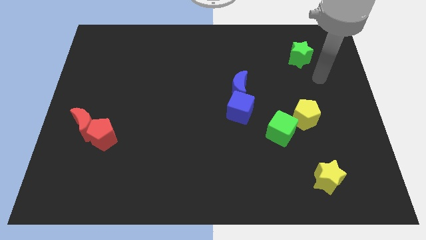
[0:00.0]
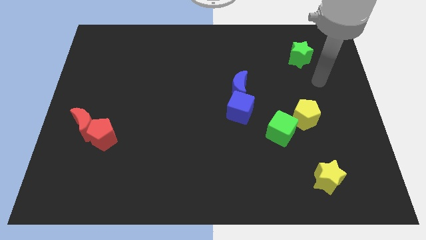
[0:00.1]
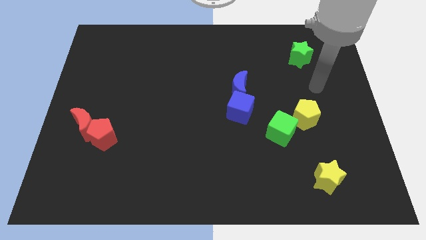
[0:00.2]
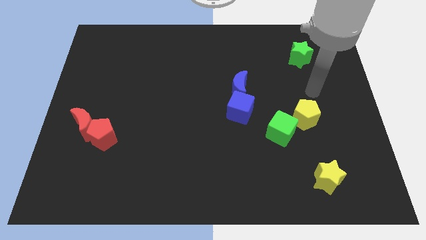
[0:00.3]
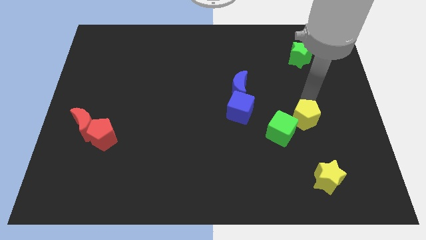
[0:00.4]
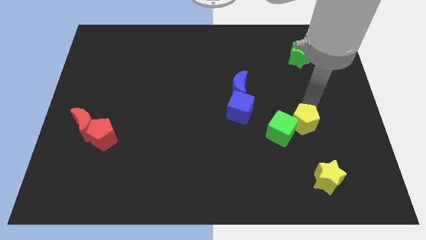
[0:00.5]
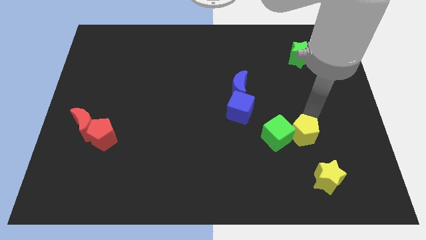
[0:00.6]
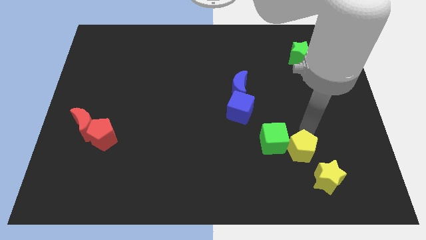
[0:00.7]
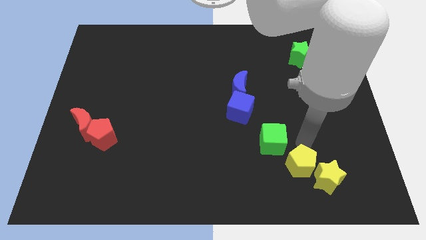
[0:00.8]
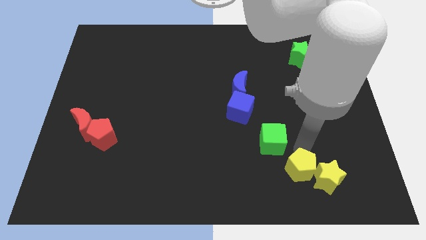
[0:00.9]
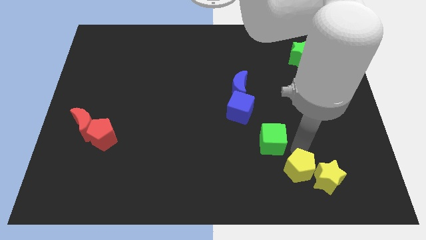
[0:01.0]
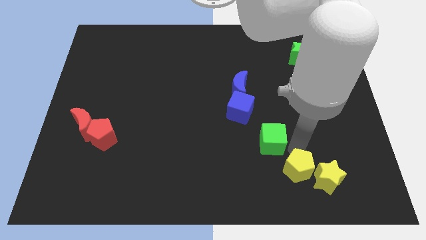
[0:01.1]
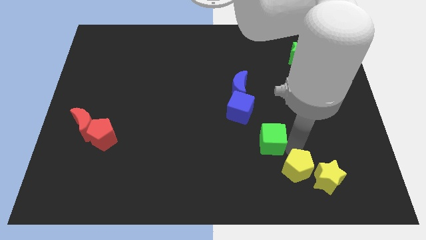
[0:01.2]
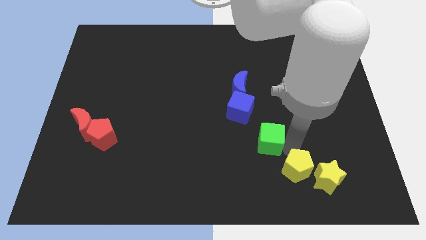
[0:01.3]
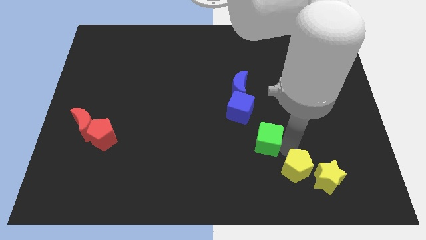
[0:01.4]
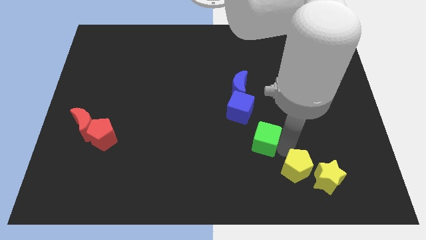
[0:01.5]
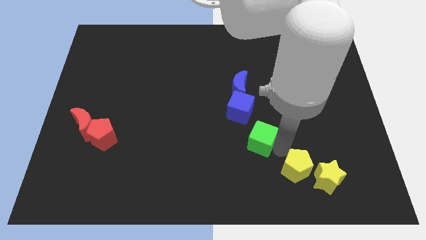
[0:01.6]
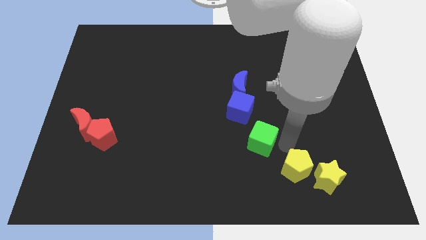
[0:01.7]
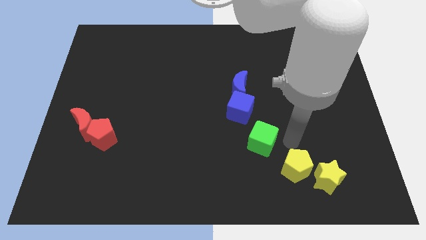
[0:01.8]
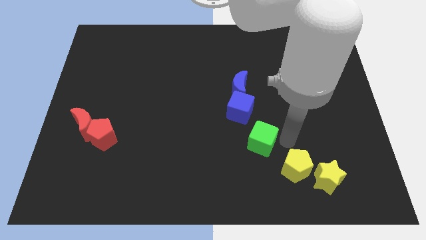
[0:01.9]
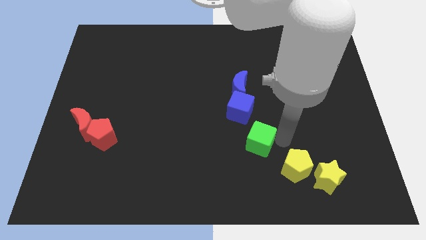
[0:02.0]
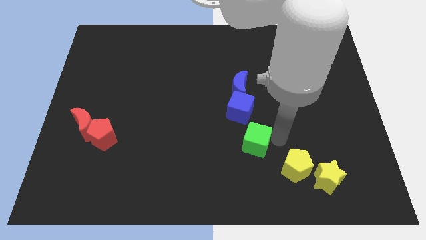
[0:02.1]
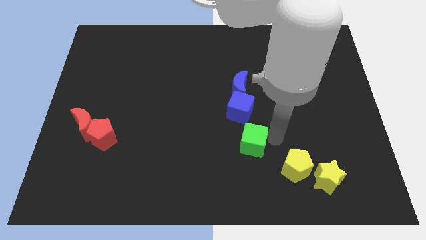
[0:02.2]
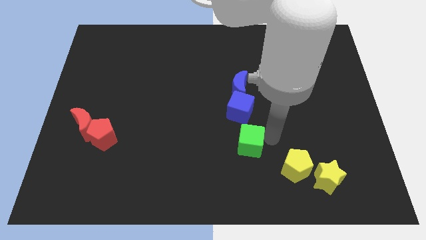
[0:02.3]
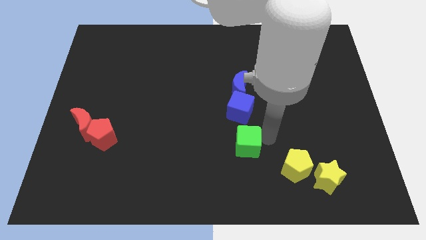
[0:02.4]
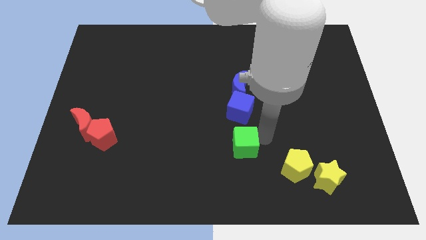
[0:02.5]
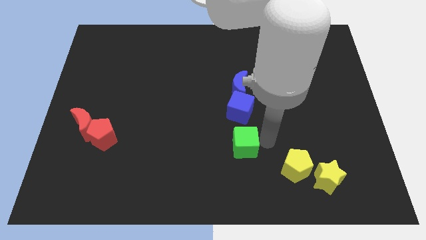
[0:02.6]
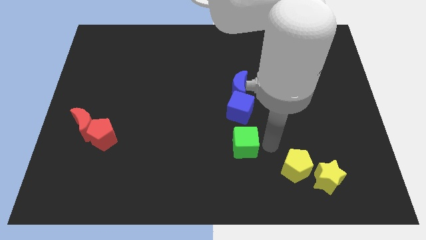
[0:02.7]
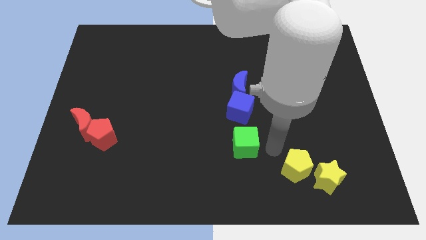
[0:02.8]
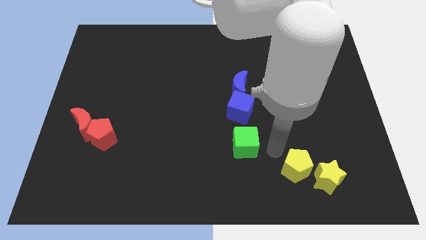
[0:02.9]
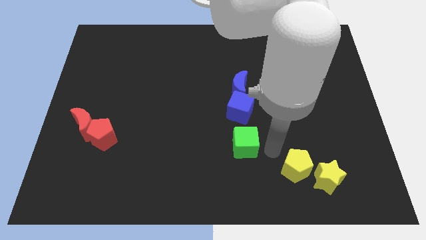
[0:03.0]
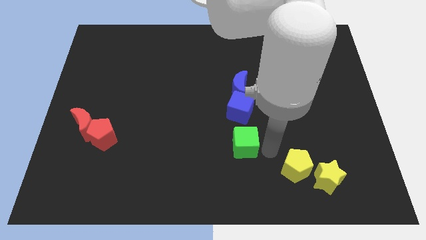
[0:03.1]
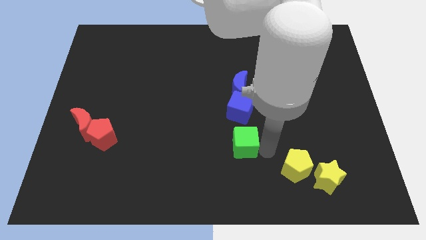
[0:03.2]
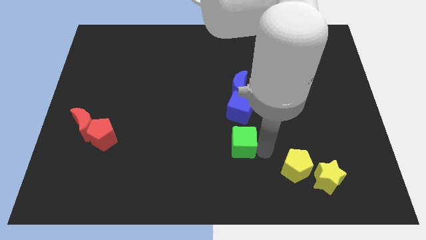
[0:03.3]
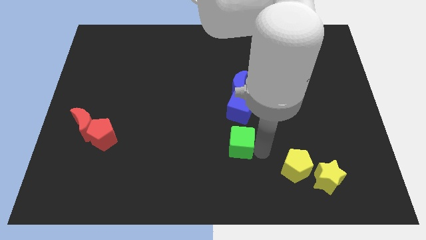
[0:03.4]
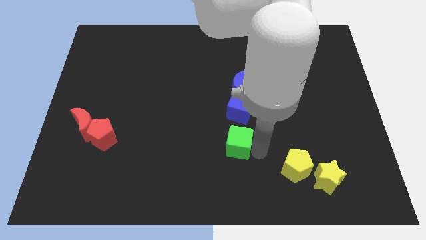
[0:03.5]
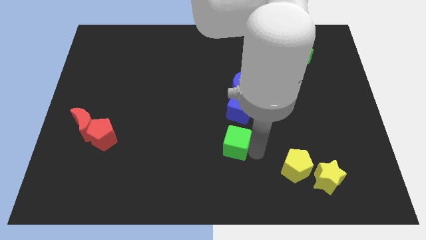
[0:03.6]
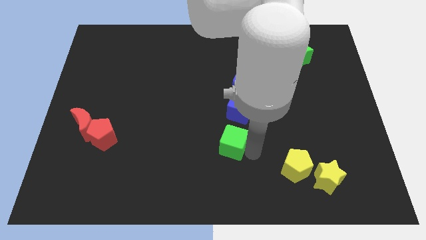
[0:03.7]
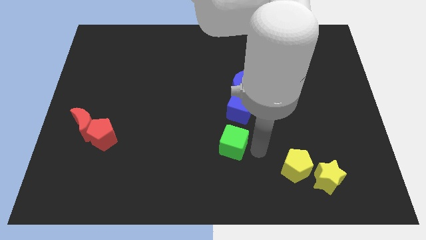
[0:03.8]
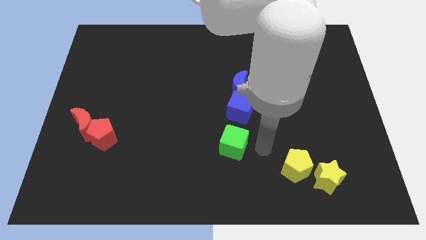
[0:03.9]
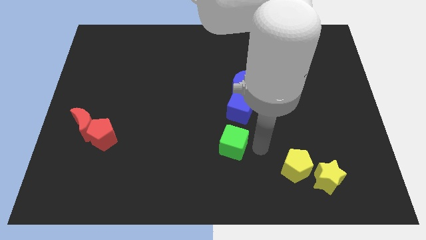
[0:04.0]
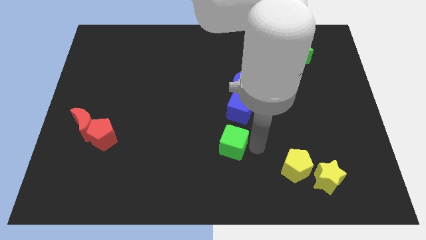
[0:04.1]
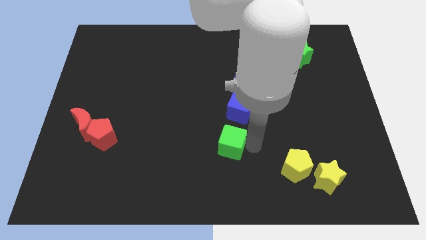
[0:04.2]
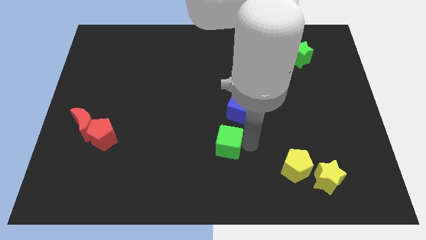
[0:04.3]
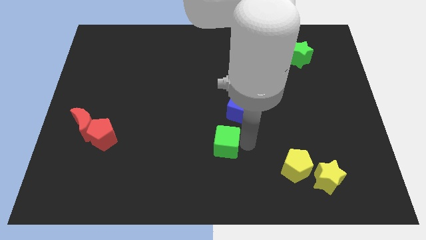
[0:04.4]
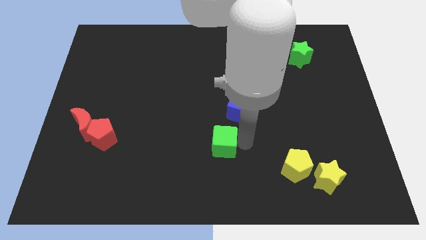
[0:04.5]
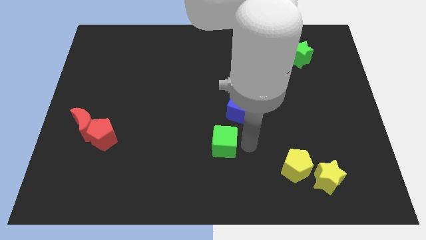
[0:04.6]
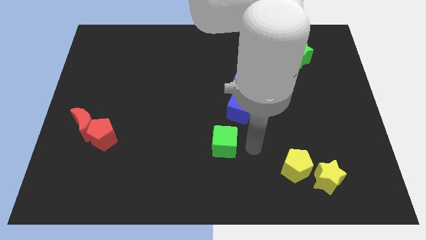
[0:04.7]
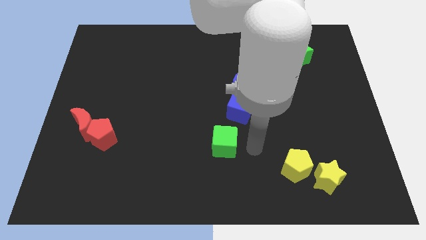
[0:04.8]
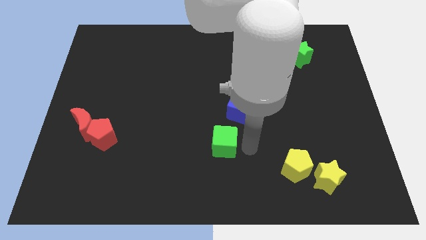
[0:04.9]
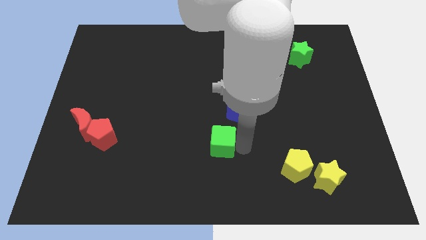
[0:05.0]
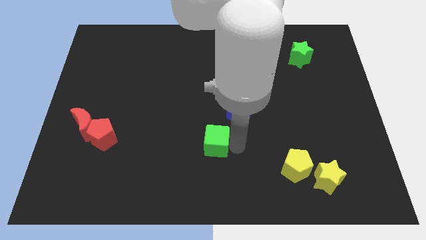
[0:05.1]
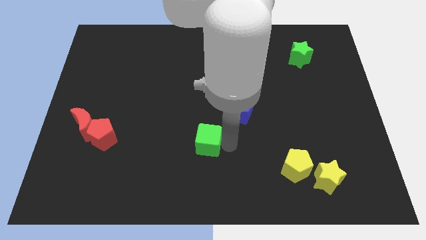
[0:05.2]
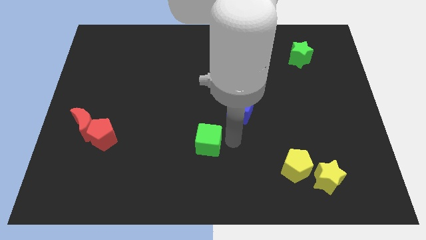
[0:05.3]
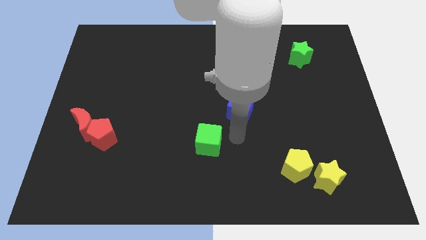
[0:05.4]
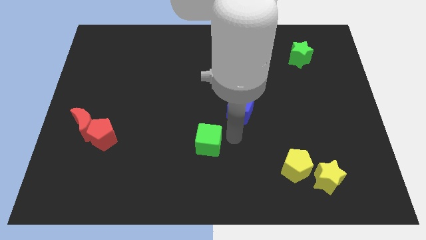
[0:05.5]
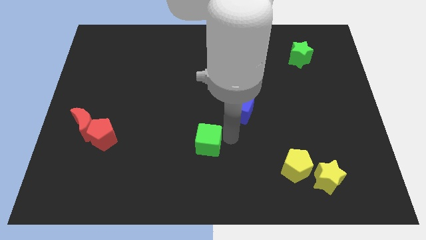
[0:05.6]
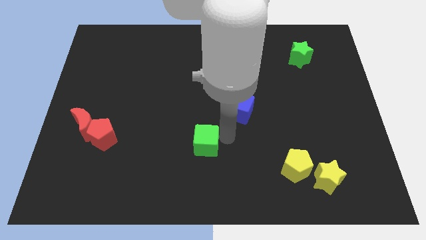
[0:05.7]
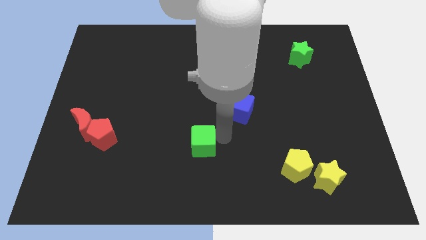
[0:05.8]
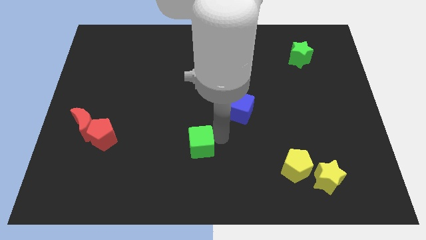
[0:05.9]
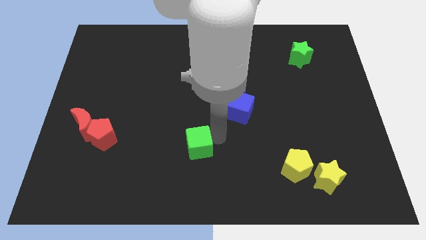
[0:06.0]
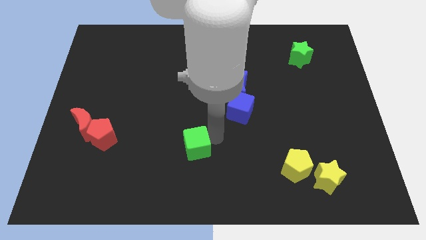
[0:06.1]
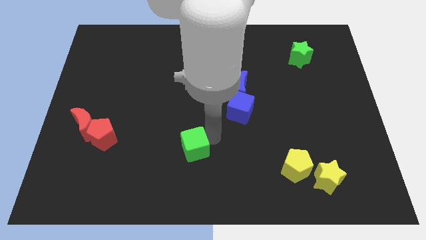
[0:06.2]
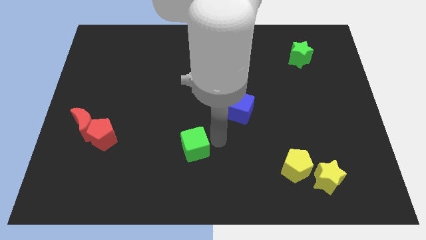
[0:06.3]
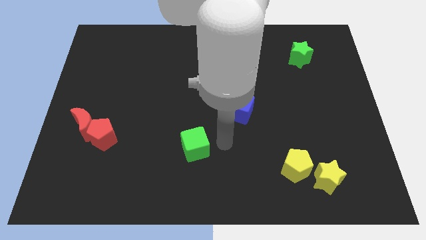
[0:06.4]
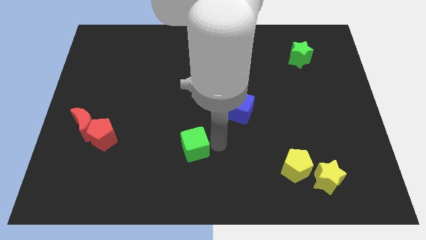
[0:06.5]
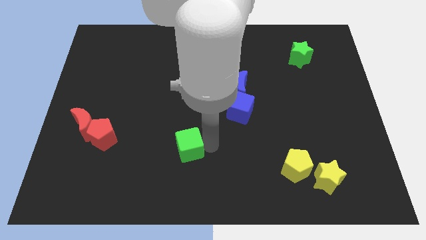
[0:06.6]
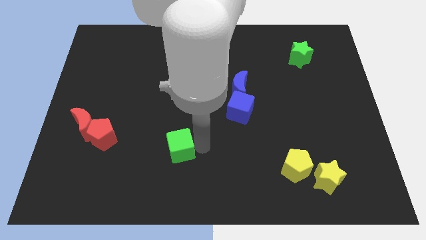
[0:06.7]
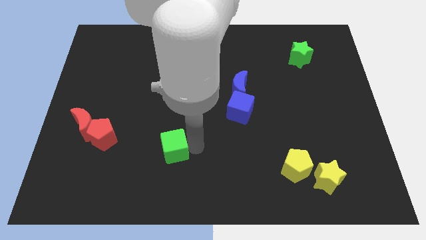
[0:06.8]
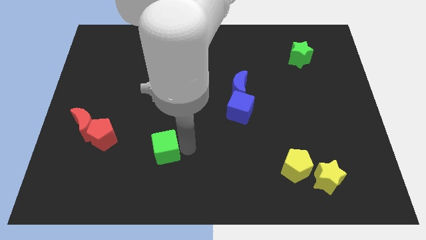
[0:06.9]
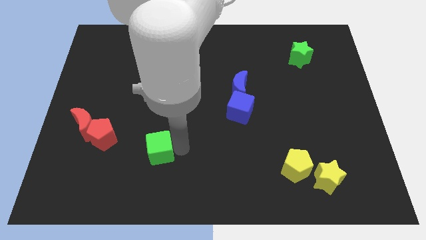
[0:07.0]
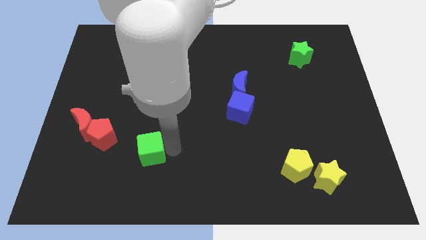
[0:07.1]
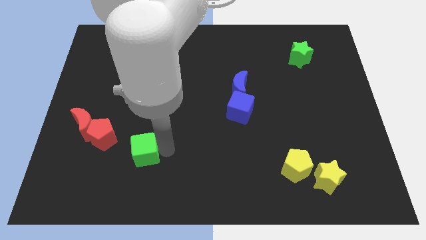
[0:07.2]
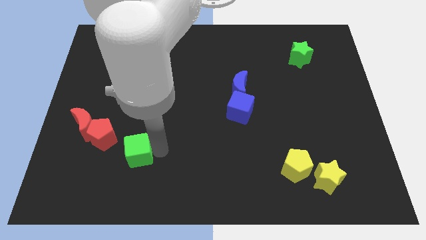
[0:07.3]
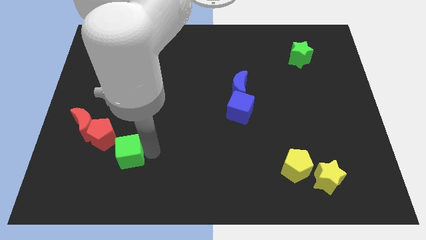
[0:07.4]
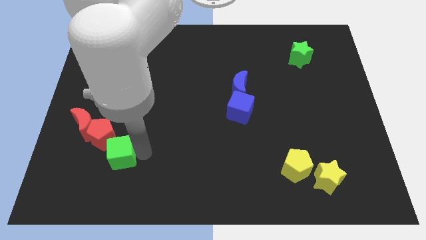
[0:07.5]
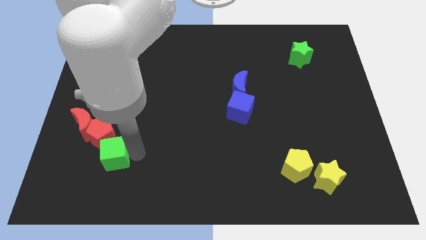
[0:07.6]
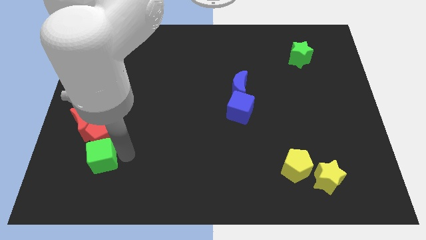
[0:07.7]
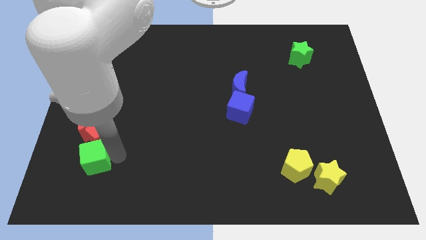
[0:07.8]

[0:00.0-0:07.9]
slide the green cube below the red moon
